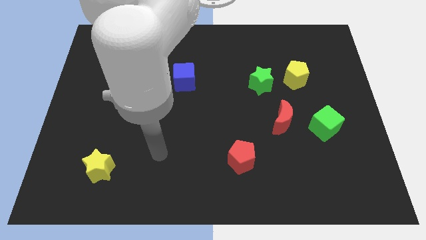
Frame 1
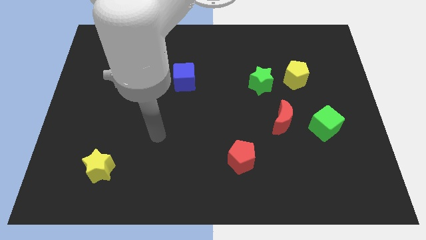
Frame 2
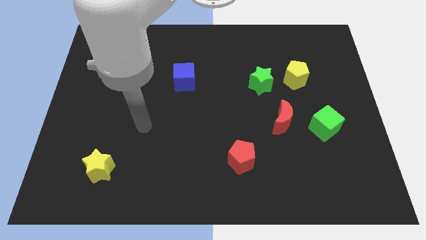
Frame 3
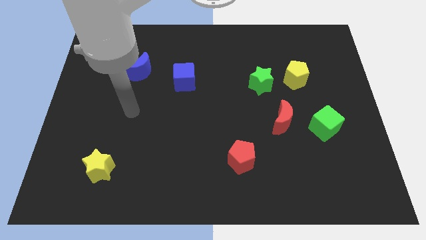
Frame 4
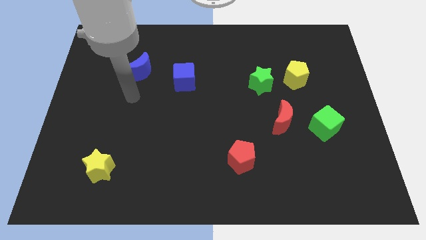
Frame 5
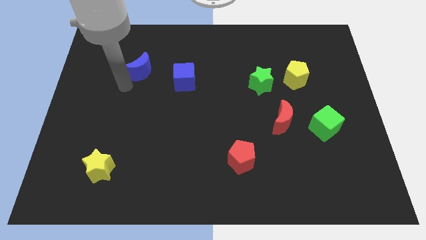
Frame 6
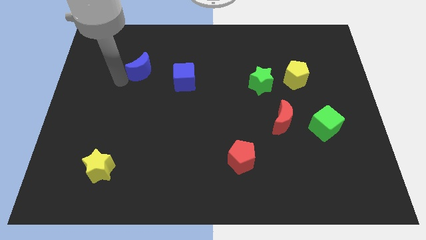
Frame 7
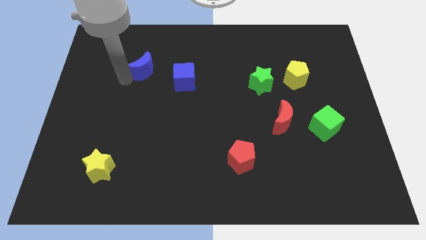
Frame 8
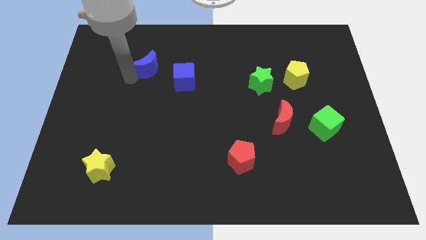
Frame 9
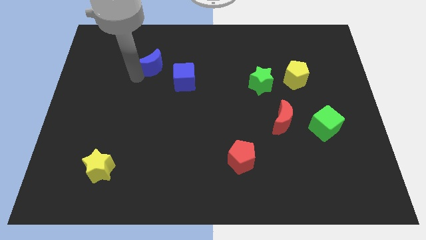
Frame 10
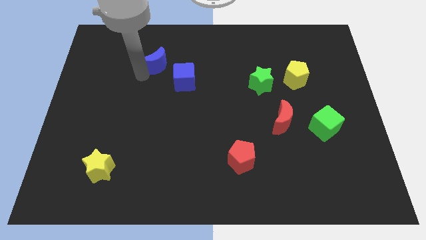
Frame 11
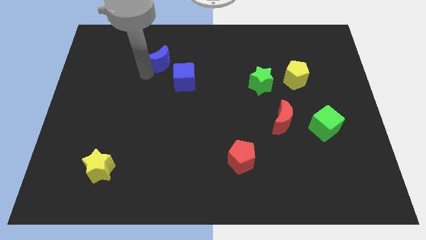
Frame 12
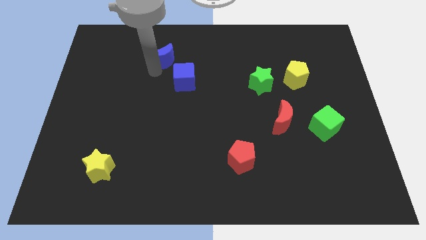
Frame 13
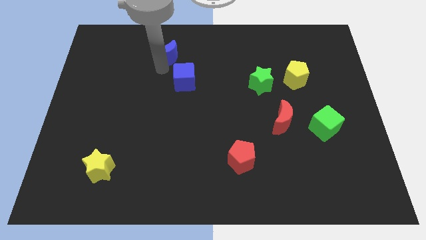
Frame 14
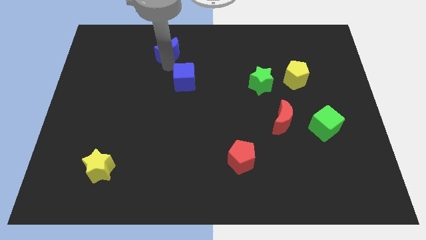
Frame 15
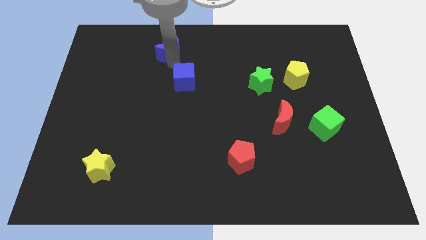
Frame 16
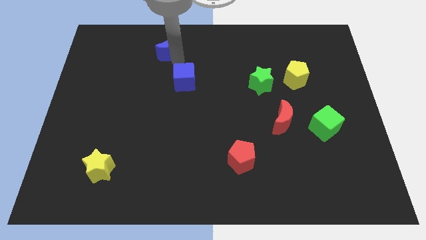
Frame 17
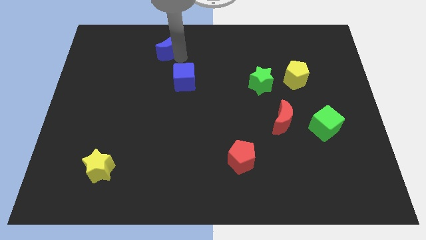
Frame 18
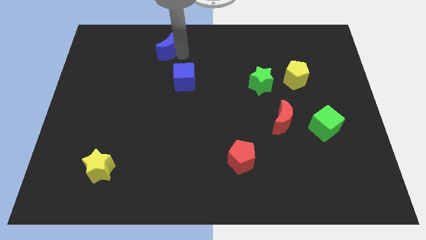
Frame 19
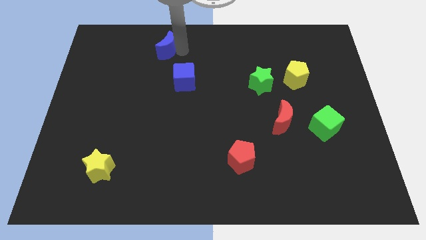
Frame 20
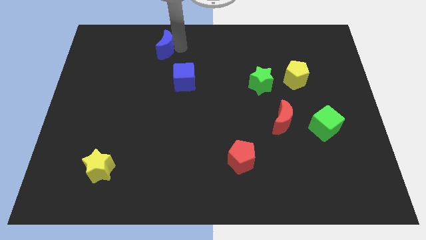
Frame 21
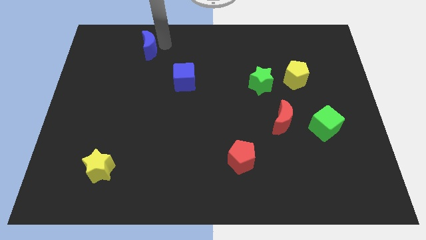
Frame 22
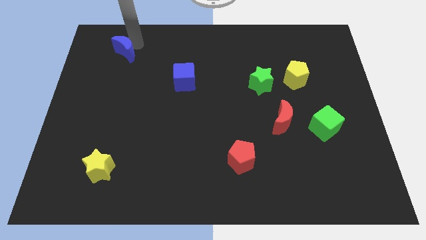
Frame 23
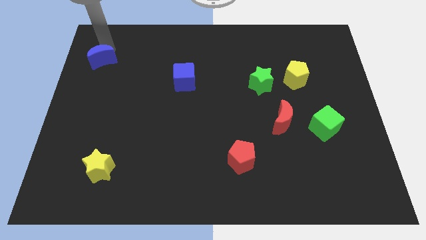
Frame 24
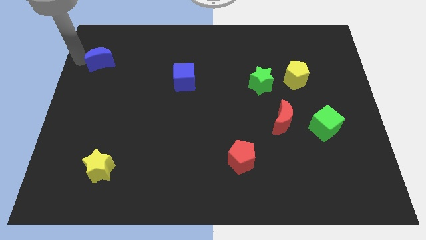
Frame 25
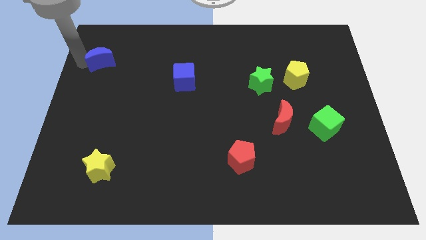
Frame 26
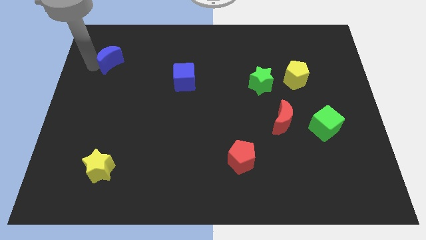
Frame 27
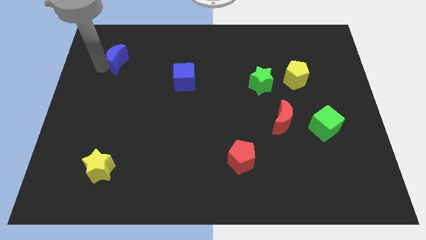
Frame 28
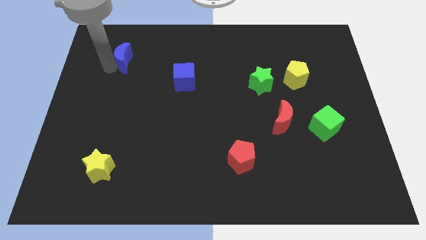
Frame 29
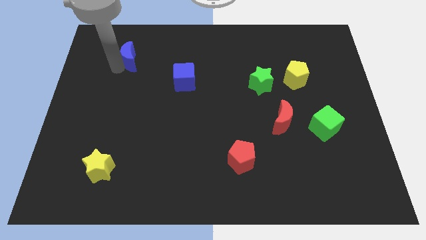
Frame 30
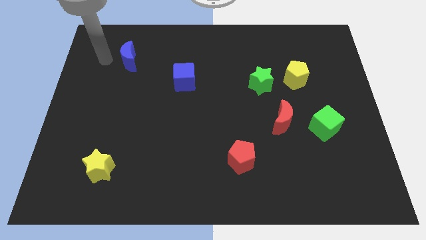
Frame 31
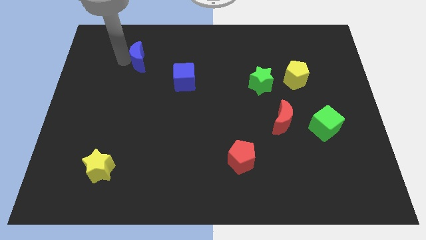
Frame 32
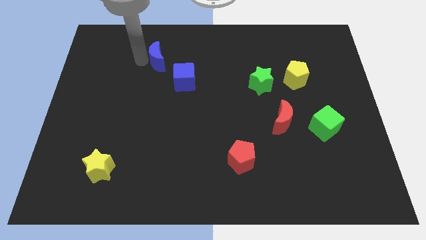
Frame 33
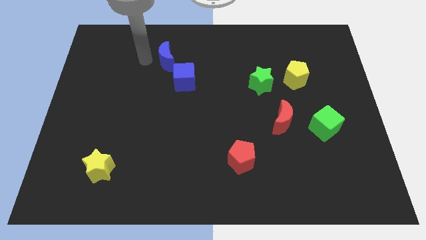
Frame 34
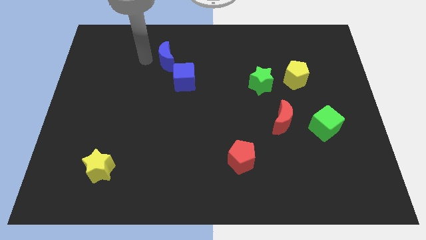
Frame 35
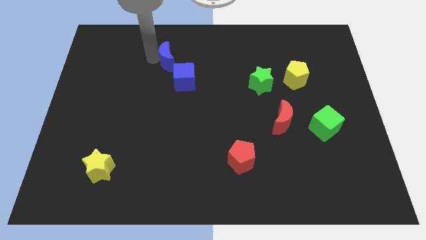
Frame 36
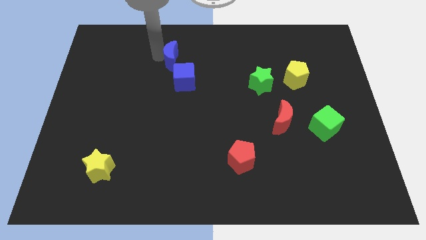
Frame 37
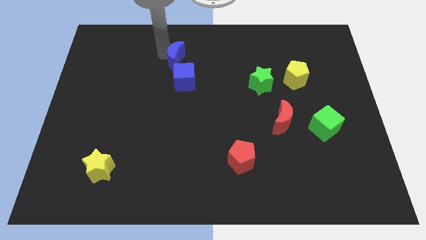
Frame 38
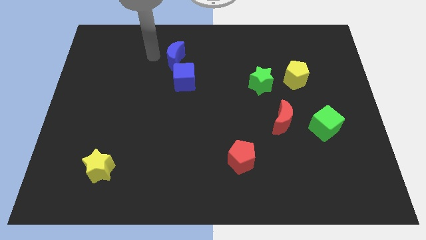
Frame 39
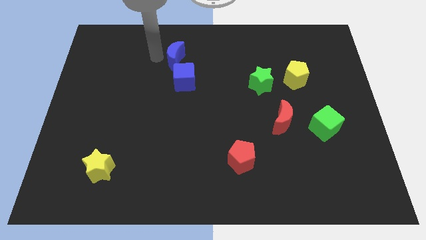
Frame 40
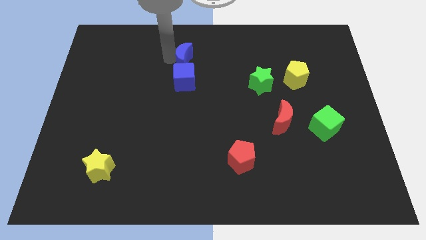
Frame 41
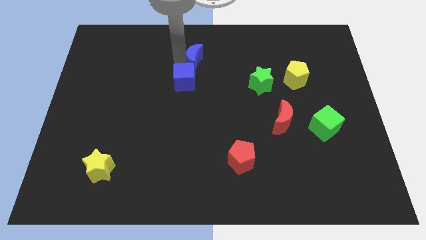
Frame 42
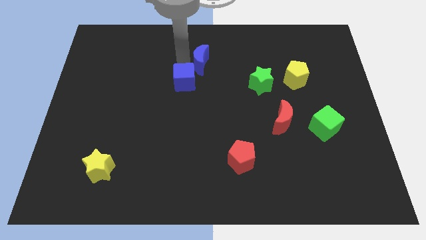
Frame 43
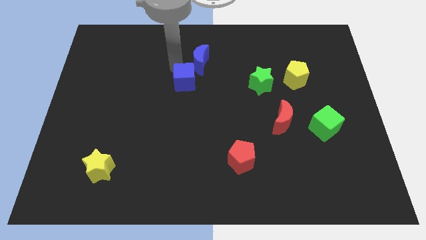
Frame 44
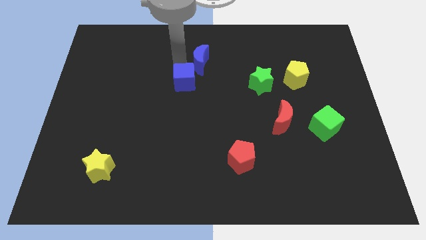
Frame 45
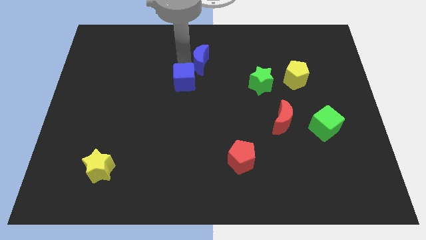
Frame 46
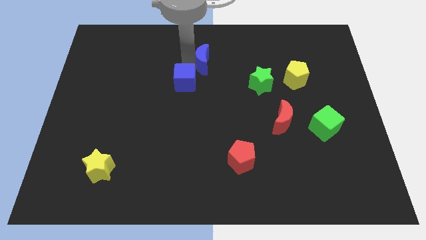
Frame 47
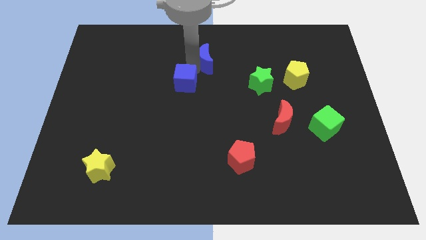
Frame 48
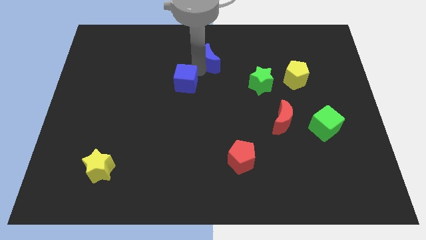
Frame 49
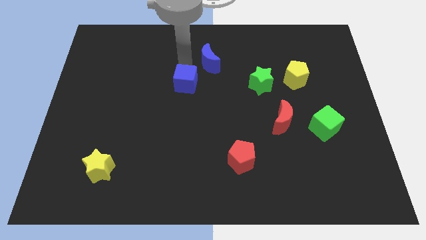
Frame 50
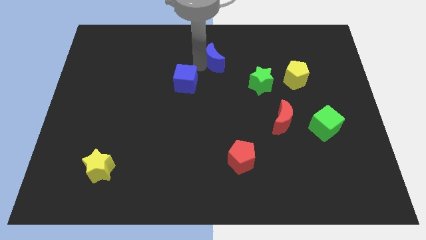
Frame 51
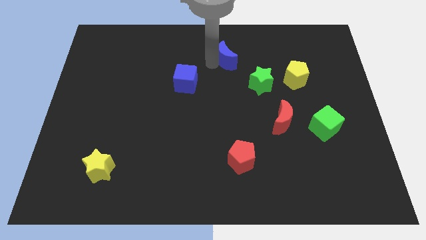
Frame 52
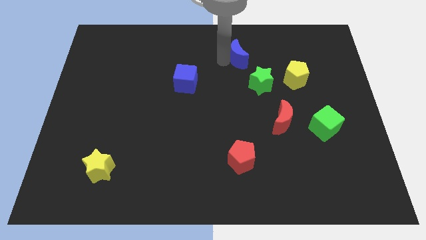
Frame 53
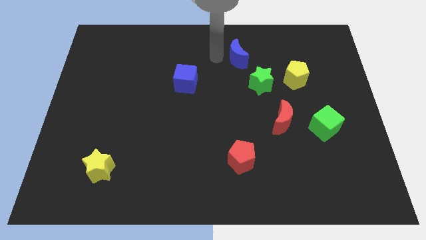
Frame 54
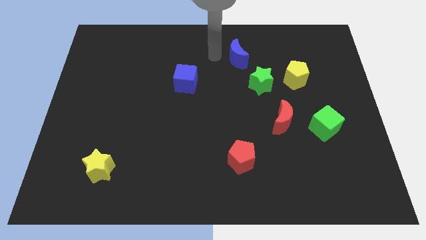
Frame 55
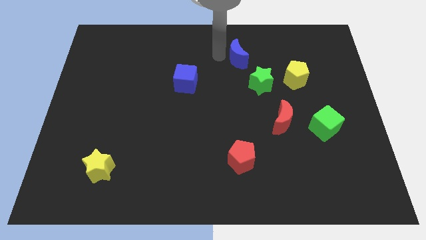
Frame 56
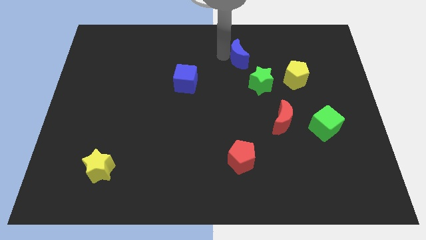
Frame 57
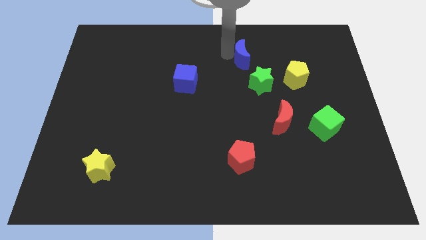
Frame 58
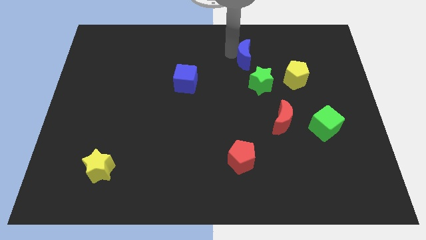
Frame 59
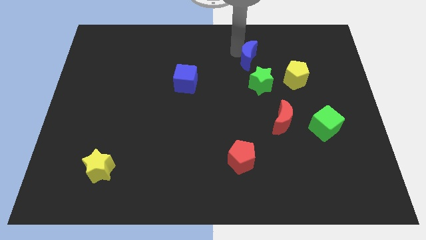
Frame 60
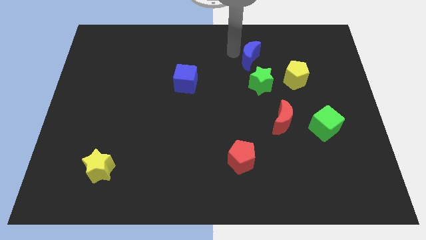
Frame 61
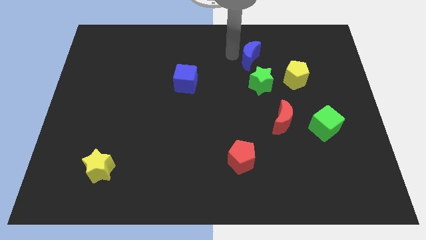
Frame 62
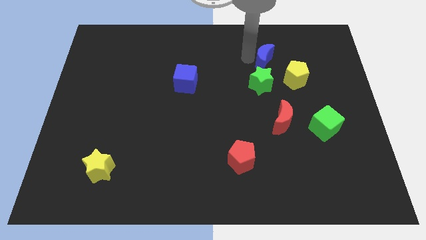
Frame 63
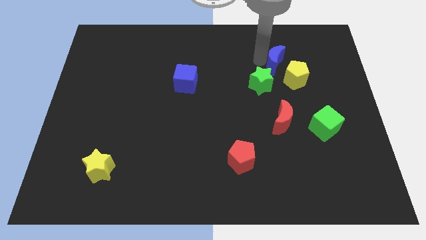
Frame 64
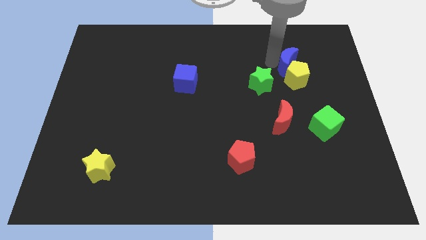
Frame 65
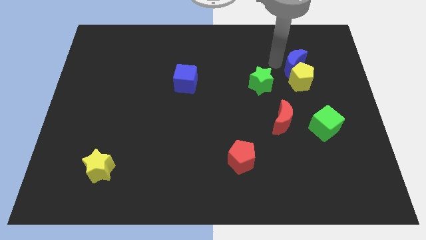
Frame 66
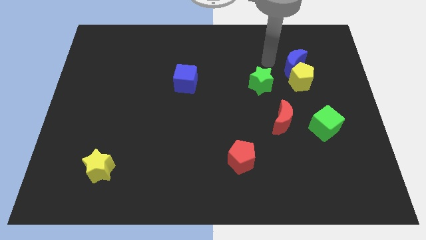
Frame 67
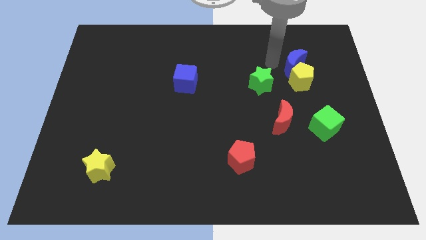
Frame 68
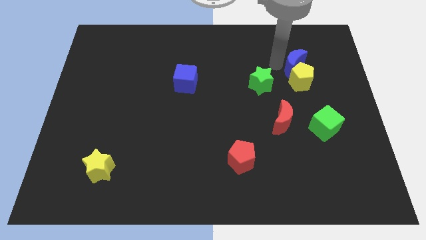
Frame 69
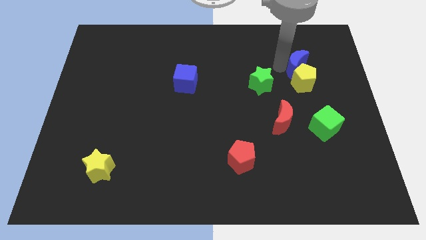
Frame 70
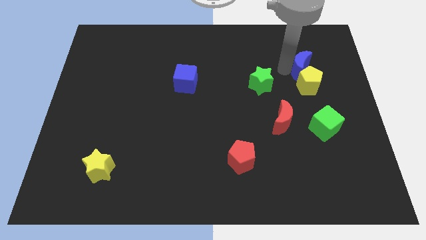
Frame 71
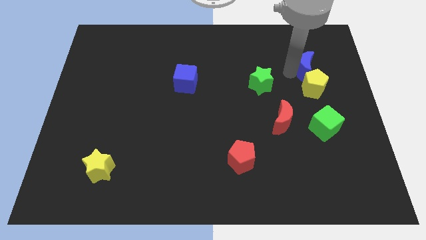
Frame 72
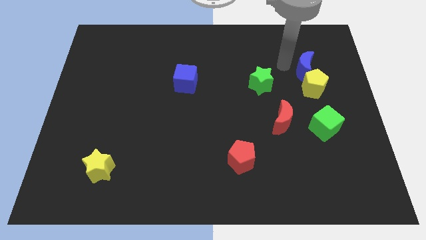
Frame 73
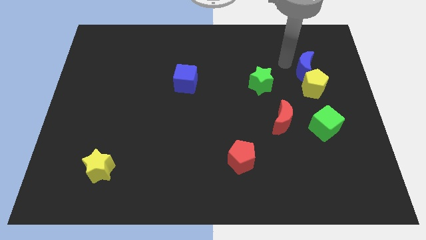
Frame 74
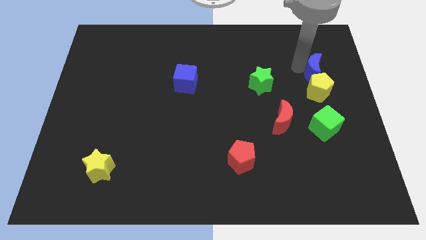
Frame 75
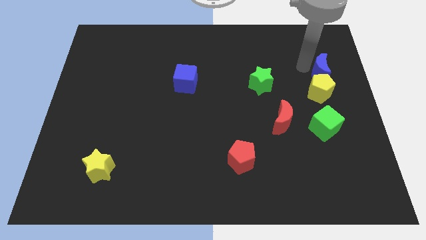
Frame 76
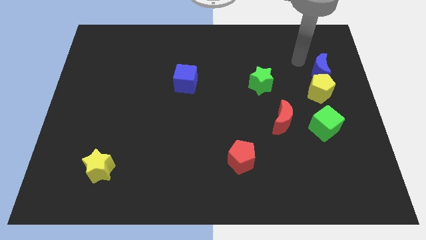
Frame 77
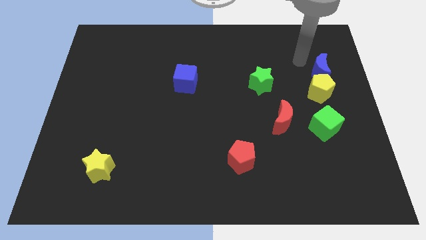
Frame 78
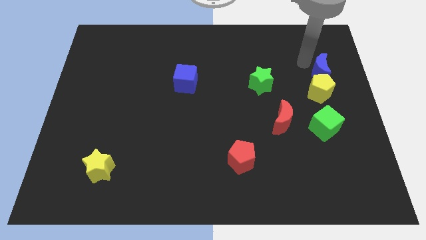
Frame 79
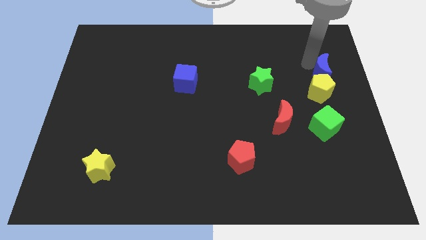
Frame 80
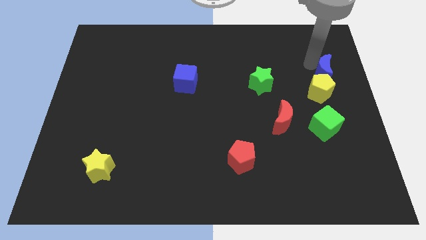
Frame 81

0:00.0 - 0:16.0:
move the blue moon to the center right
